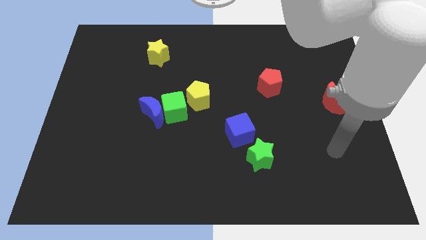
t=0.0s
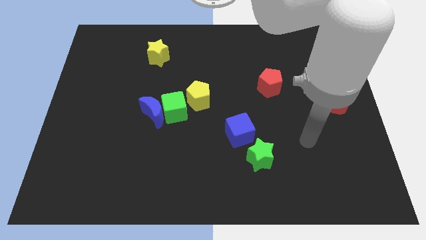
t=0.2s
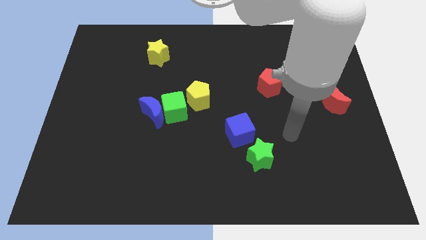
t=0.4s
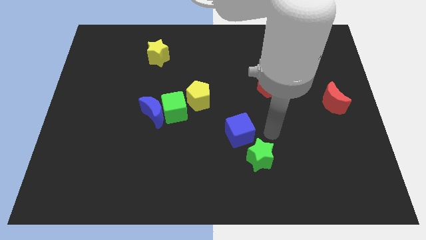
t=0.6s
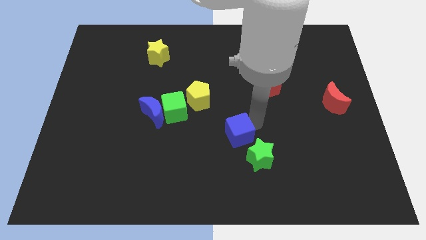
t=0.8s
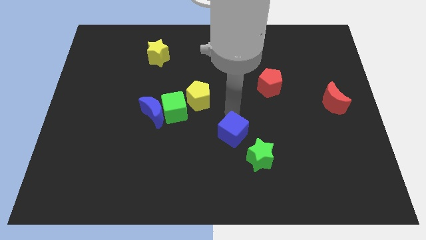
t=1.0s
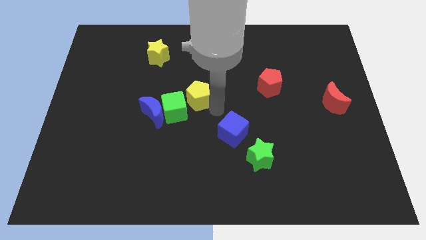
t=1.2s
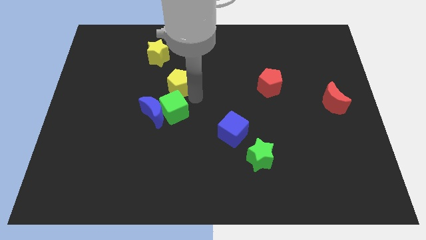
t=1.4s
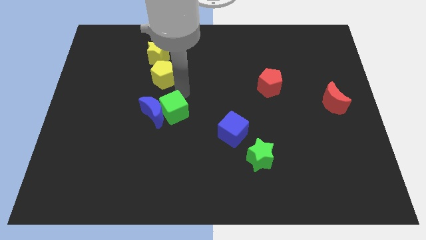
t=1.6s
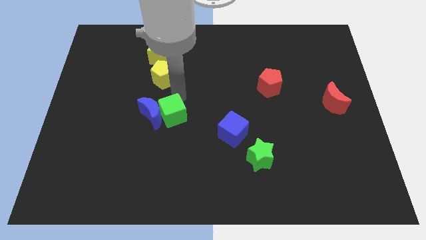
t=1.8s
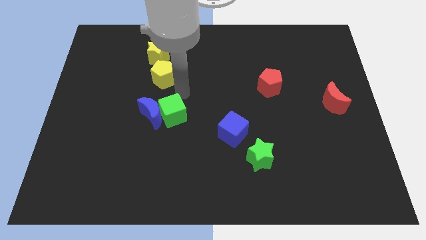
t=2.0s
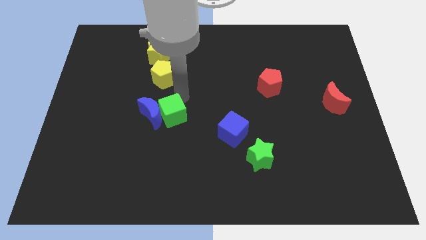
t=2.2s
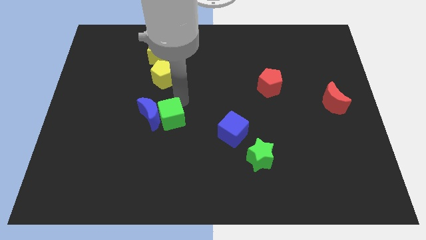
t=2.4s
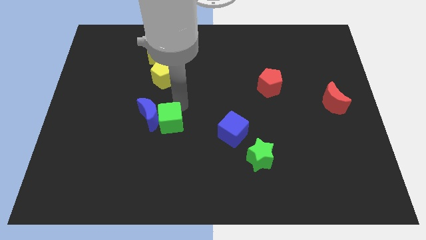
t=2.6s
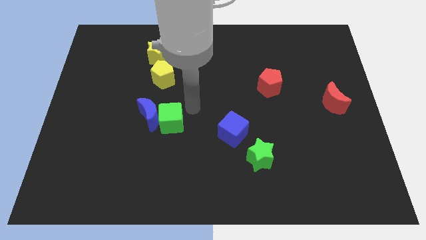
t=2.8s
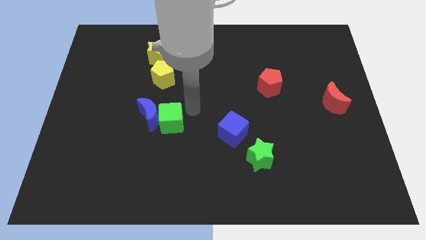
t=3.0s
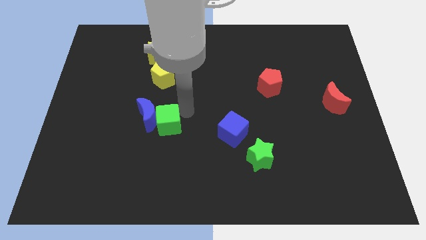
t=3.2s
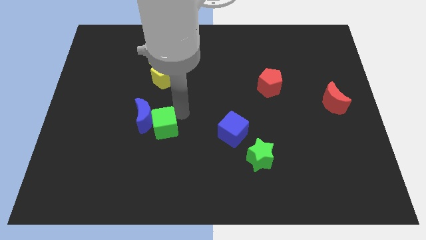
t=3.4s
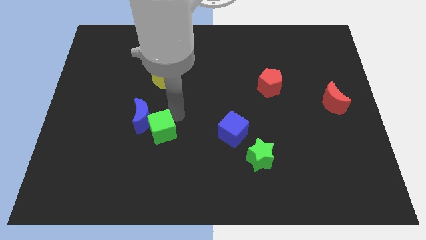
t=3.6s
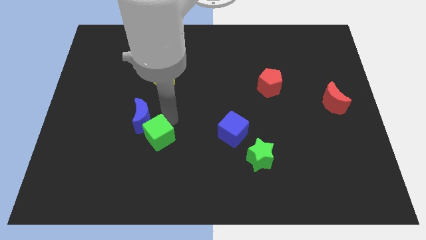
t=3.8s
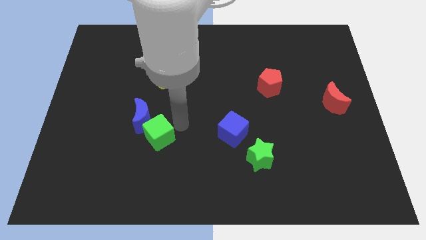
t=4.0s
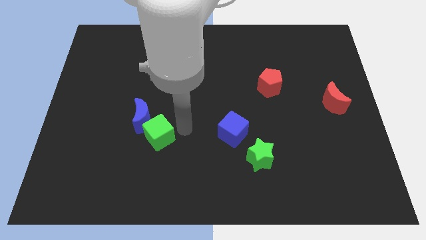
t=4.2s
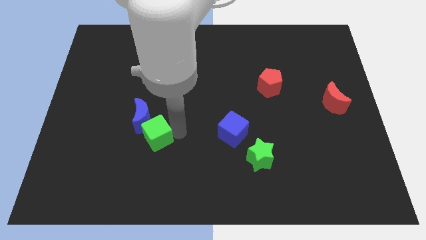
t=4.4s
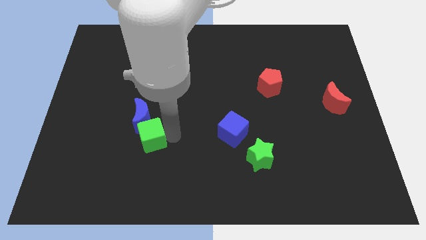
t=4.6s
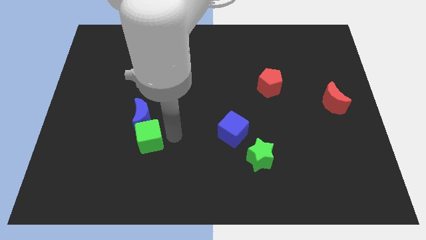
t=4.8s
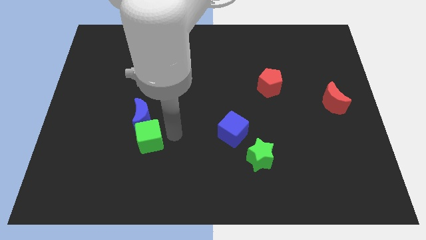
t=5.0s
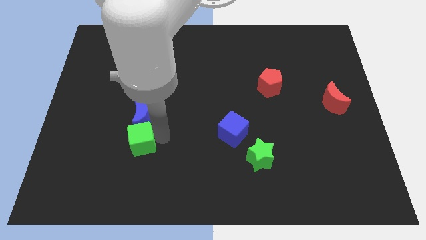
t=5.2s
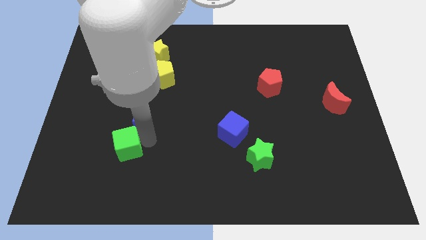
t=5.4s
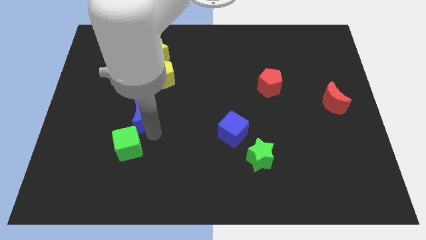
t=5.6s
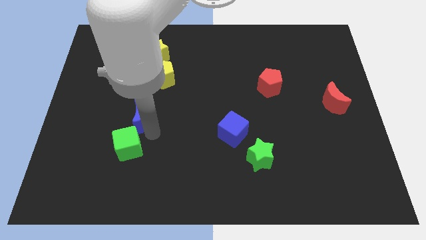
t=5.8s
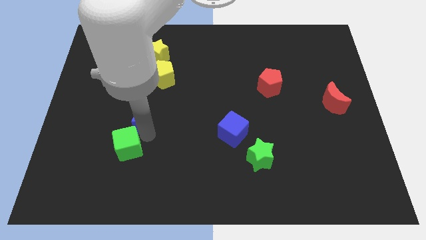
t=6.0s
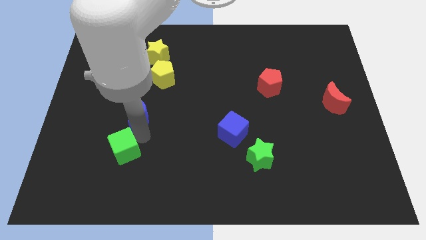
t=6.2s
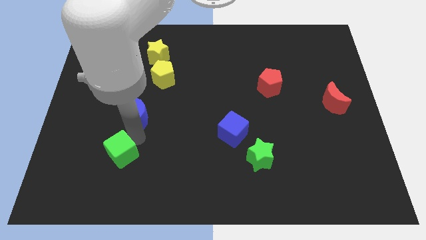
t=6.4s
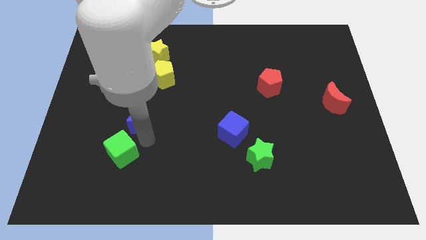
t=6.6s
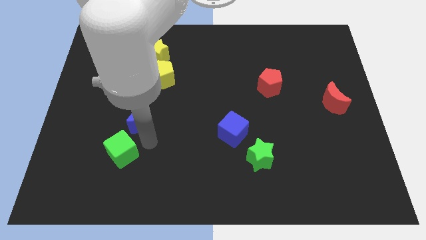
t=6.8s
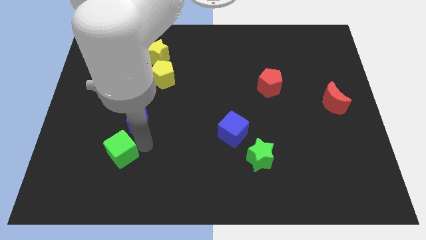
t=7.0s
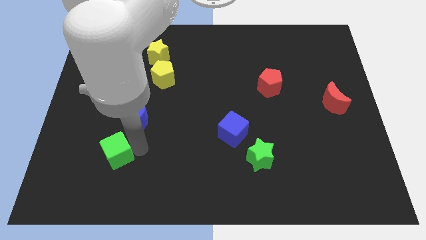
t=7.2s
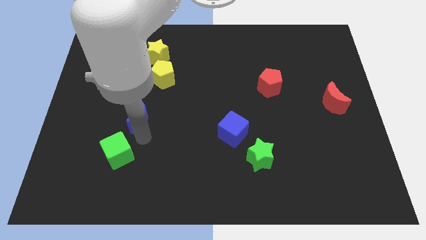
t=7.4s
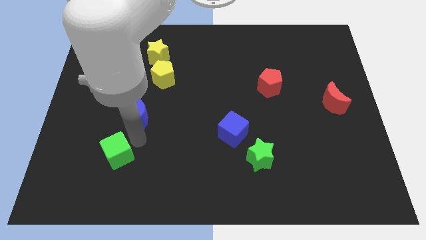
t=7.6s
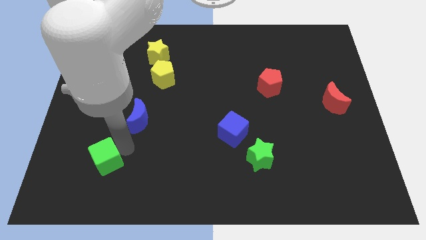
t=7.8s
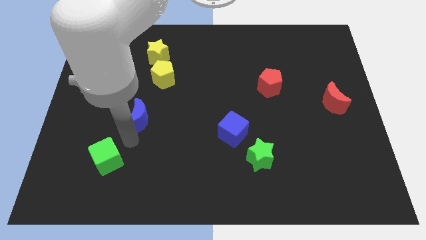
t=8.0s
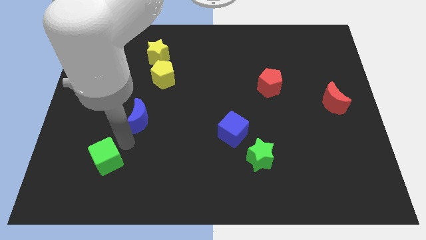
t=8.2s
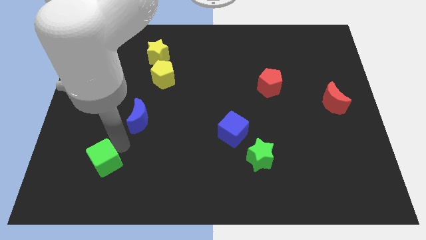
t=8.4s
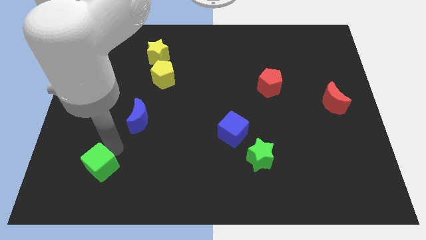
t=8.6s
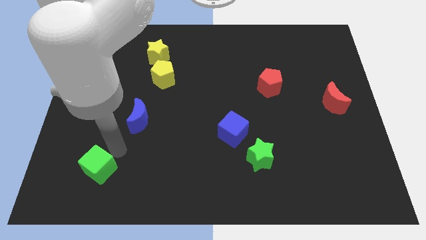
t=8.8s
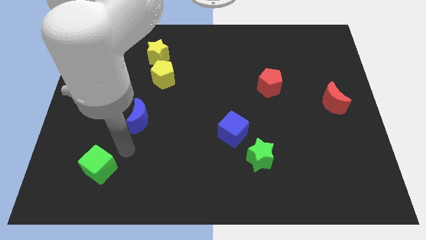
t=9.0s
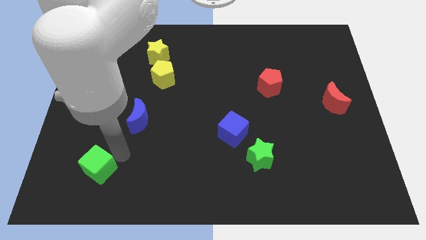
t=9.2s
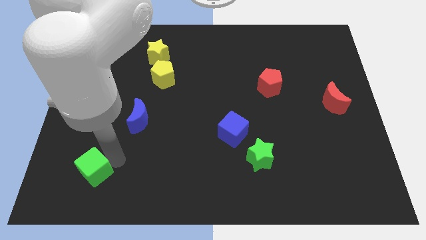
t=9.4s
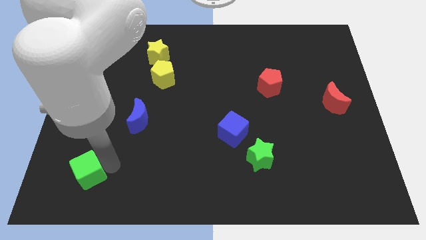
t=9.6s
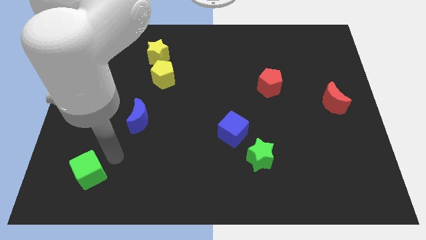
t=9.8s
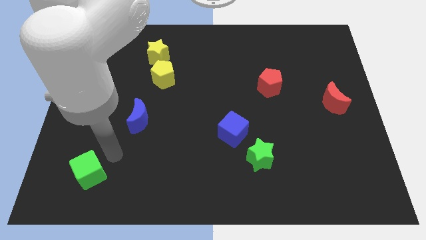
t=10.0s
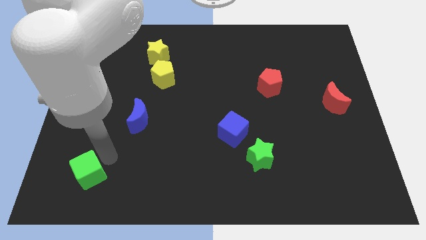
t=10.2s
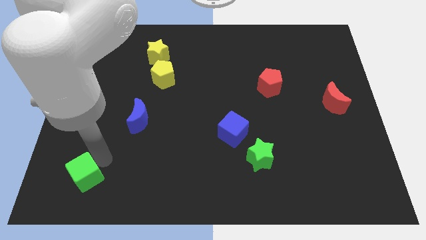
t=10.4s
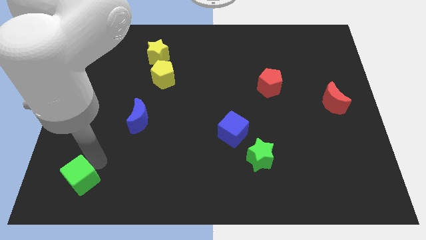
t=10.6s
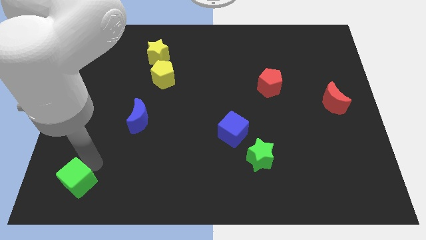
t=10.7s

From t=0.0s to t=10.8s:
put the green cube to the bottom left corner
